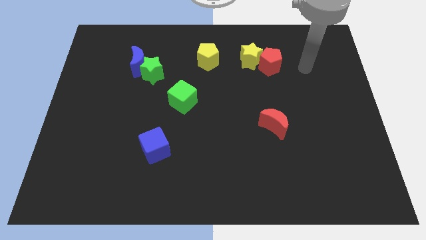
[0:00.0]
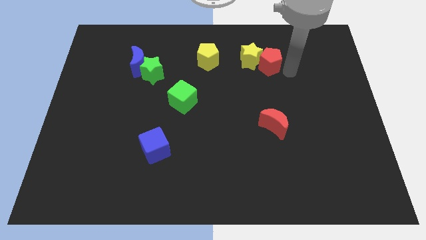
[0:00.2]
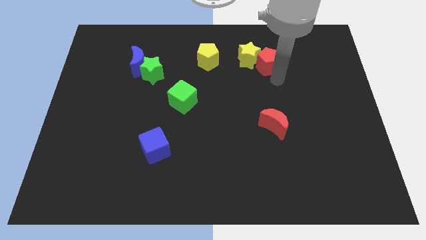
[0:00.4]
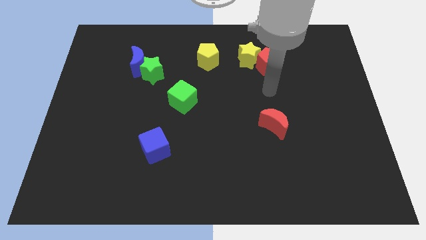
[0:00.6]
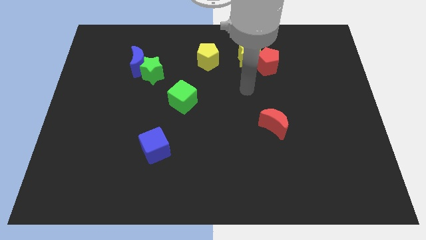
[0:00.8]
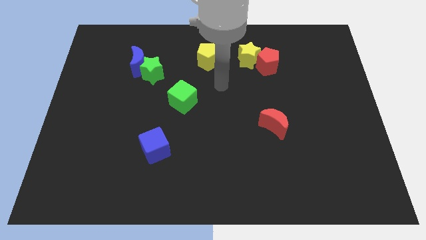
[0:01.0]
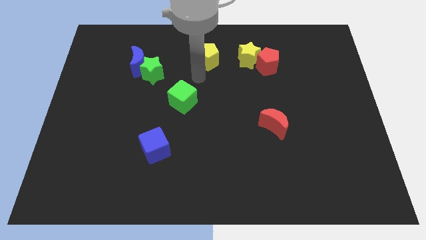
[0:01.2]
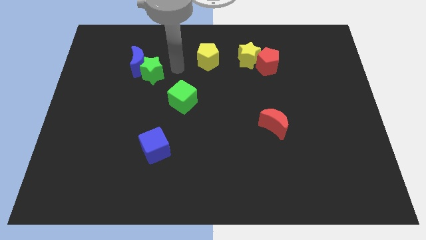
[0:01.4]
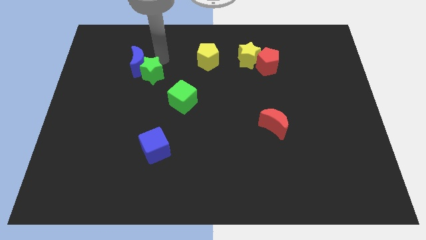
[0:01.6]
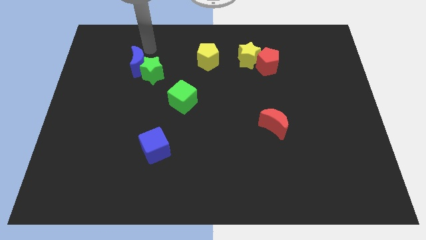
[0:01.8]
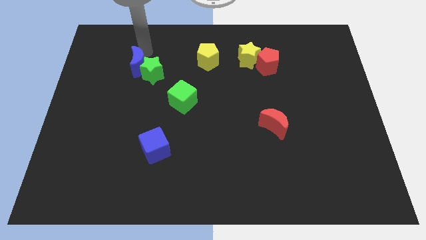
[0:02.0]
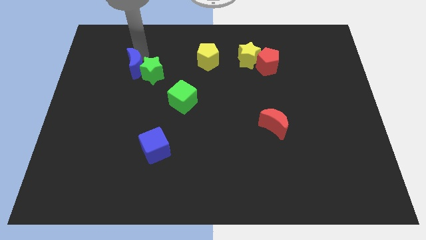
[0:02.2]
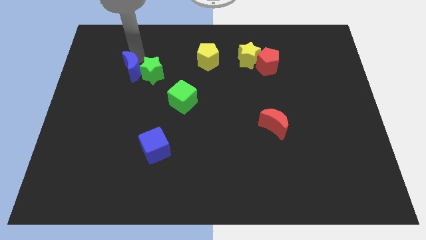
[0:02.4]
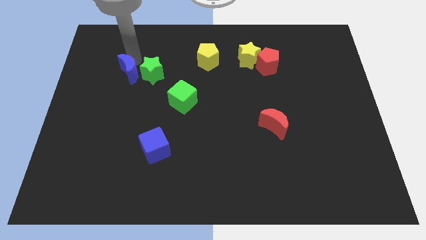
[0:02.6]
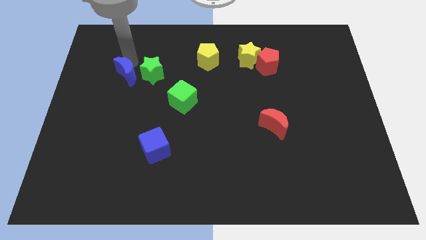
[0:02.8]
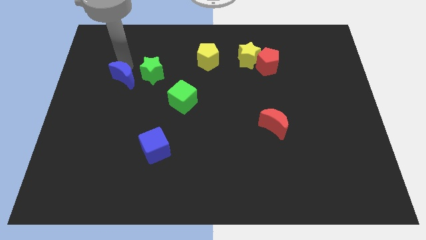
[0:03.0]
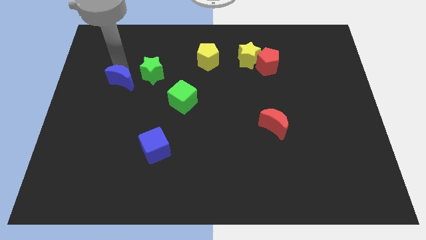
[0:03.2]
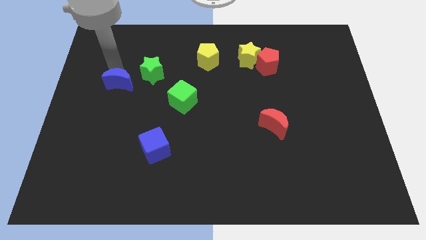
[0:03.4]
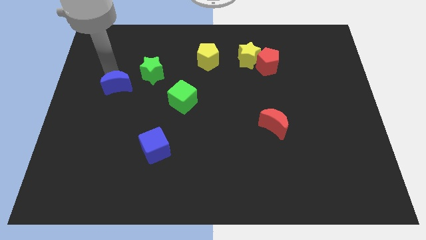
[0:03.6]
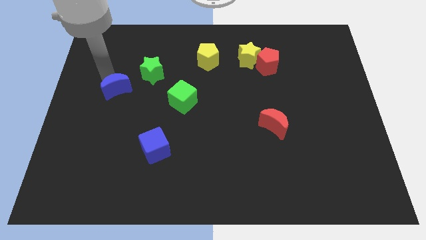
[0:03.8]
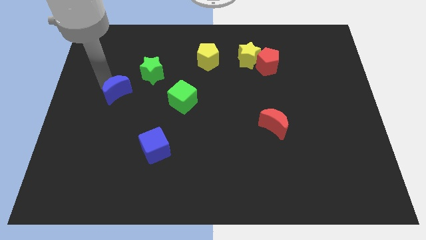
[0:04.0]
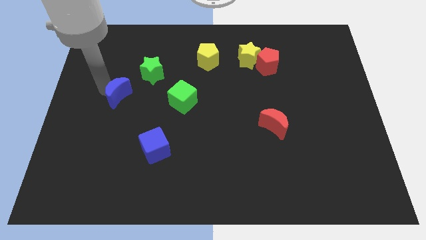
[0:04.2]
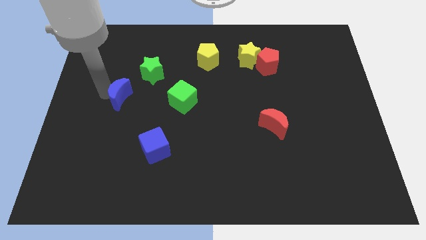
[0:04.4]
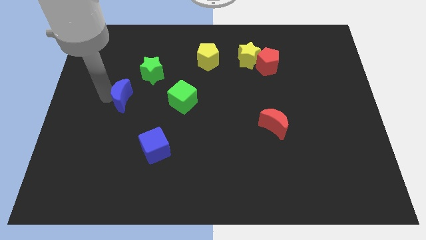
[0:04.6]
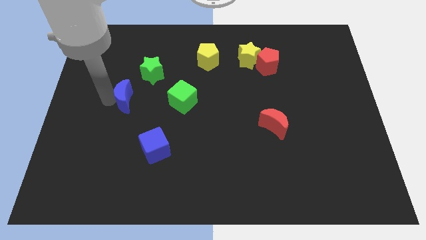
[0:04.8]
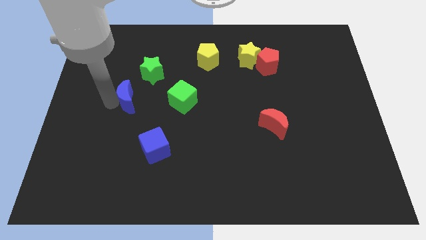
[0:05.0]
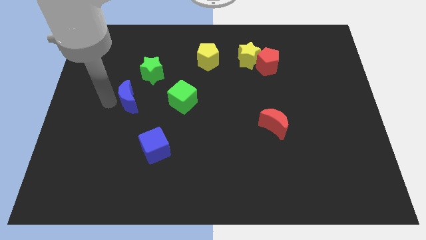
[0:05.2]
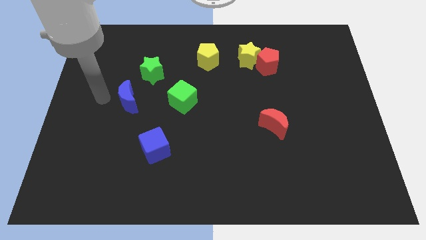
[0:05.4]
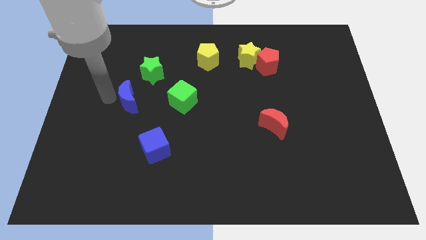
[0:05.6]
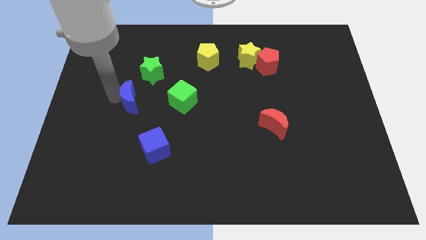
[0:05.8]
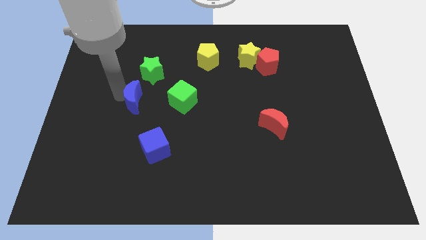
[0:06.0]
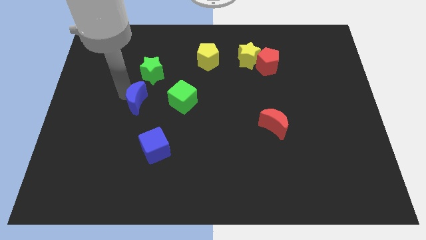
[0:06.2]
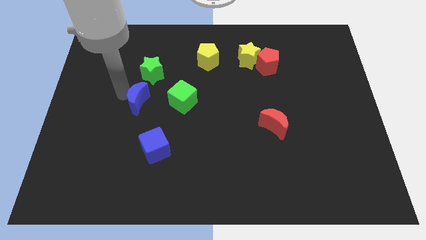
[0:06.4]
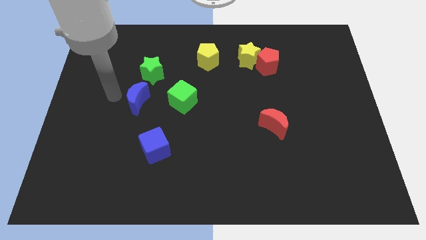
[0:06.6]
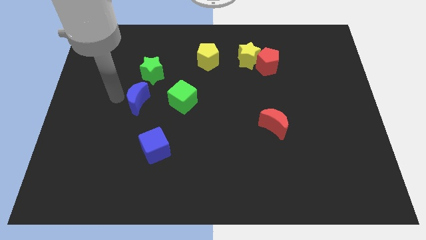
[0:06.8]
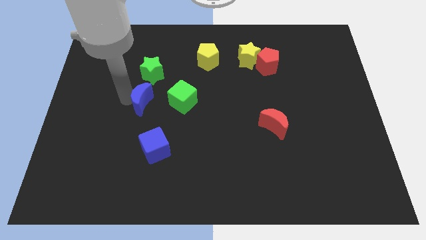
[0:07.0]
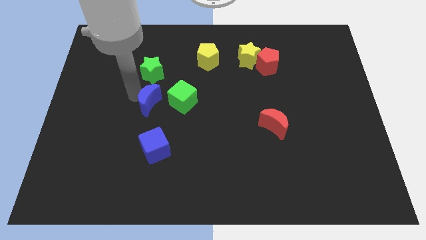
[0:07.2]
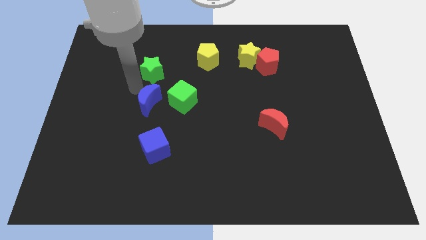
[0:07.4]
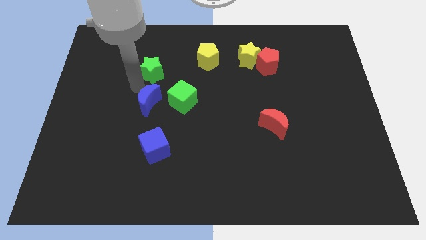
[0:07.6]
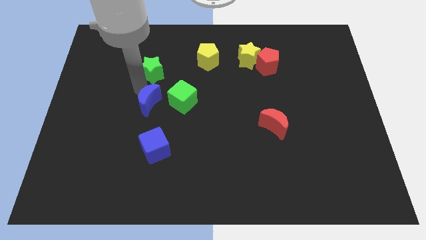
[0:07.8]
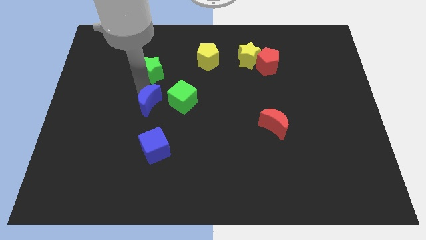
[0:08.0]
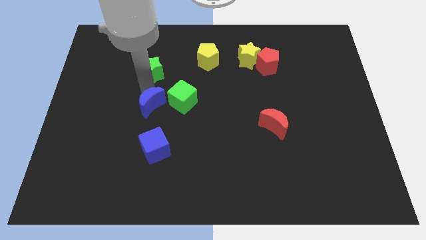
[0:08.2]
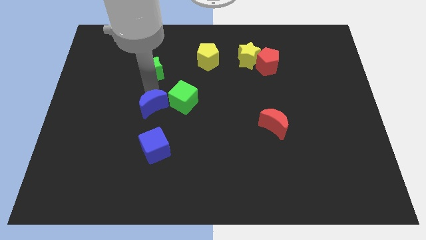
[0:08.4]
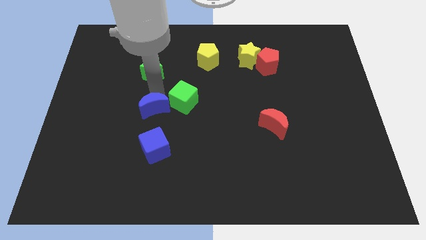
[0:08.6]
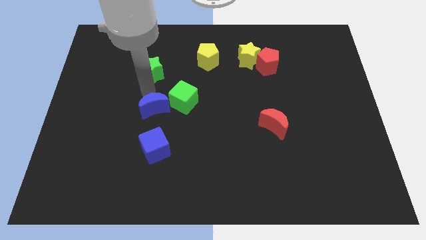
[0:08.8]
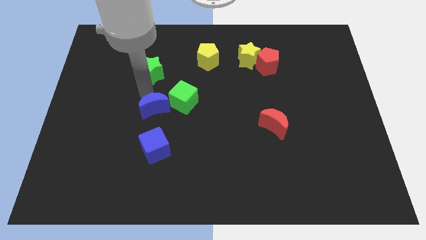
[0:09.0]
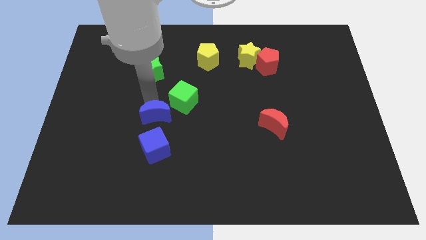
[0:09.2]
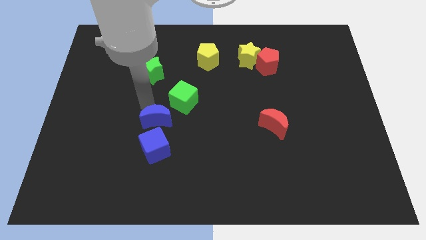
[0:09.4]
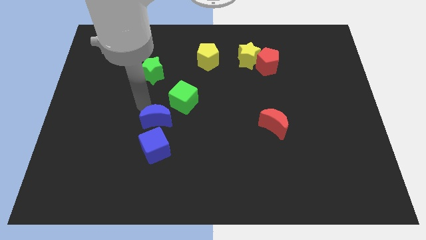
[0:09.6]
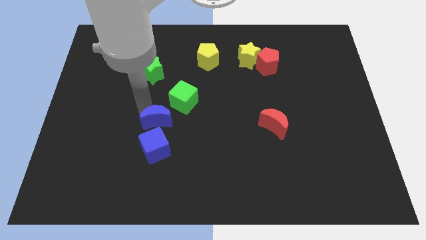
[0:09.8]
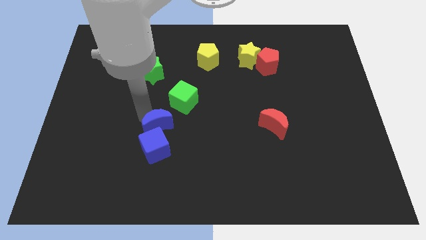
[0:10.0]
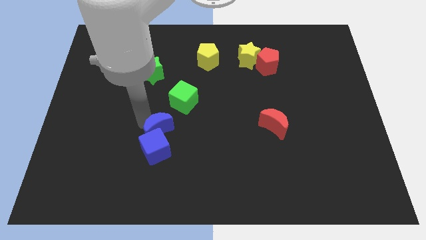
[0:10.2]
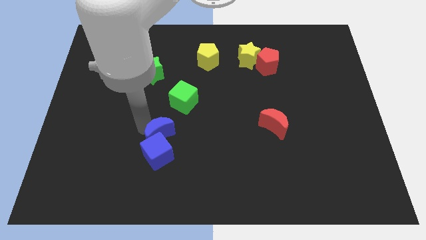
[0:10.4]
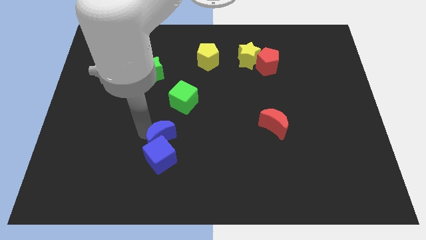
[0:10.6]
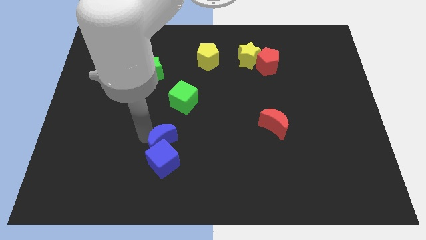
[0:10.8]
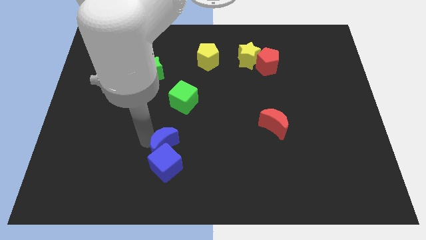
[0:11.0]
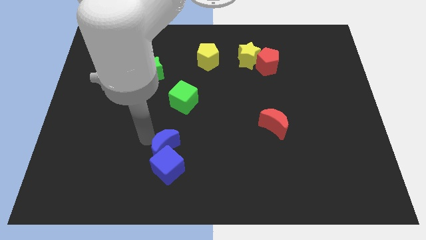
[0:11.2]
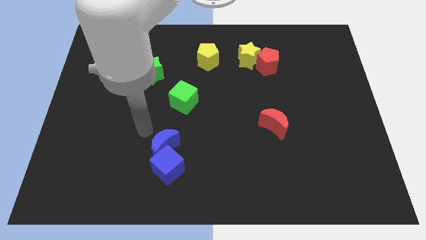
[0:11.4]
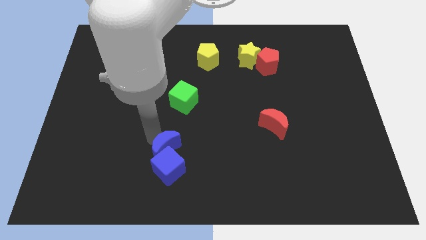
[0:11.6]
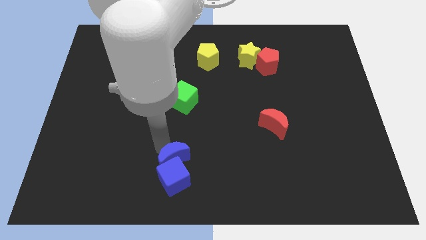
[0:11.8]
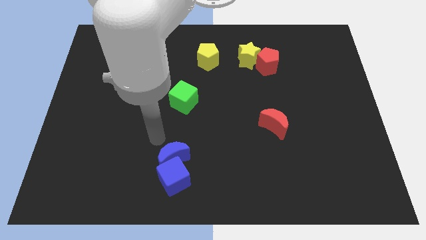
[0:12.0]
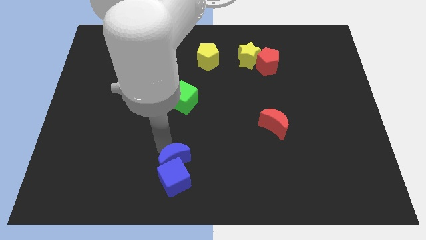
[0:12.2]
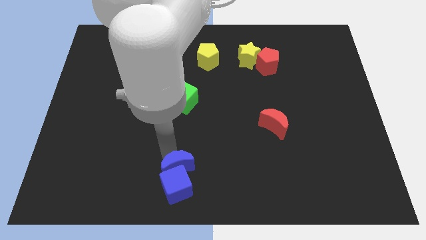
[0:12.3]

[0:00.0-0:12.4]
put the blue moon to the bottom side
